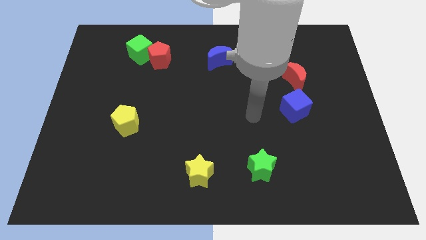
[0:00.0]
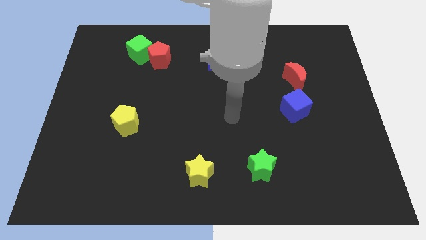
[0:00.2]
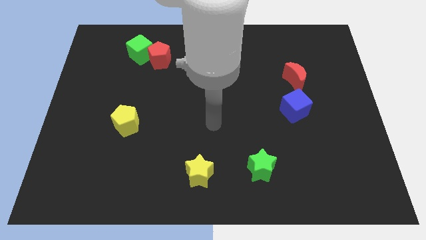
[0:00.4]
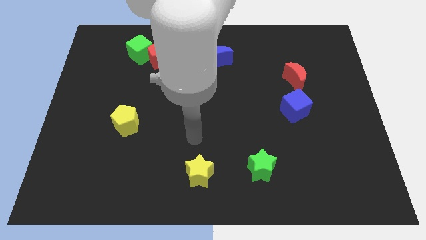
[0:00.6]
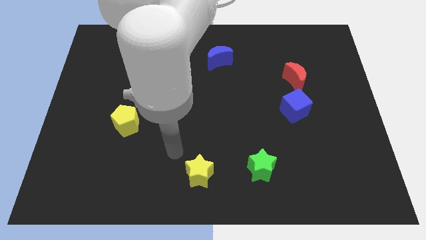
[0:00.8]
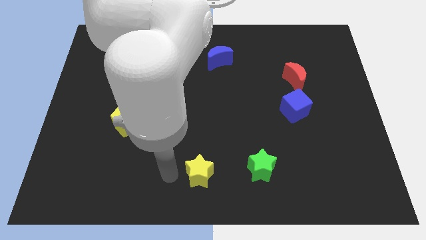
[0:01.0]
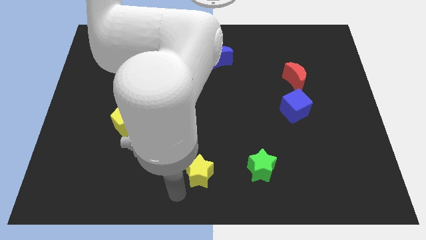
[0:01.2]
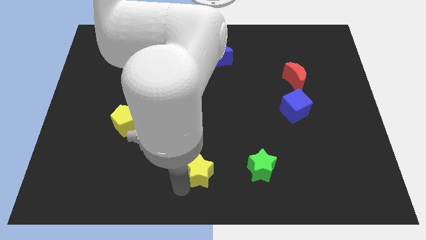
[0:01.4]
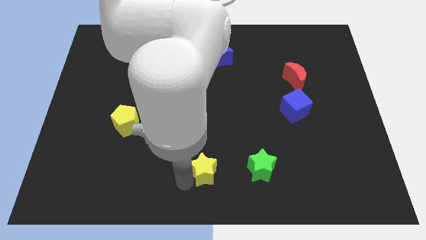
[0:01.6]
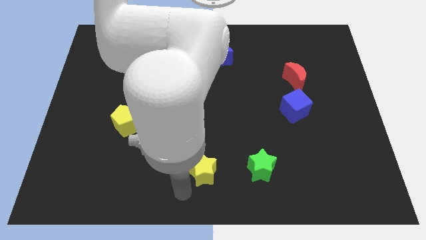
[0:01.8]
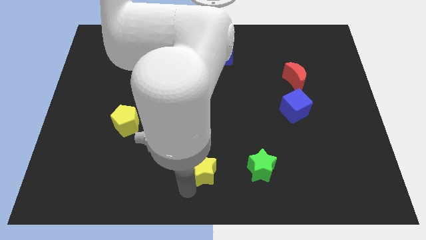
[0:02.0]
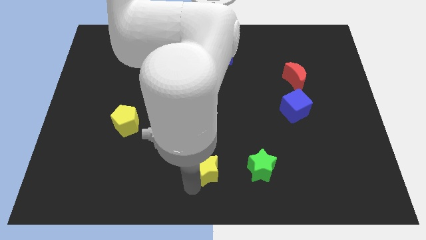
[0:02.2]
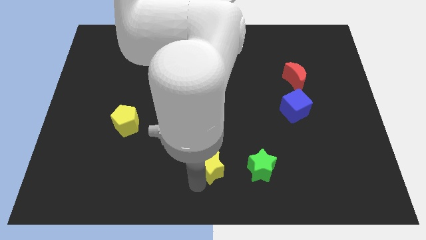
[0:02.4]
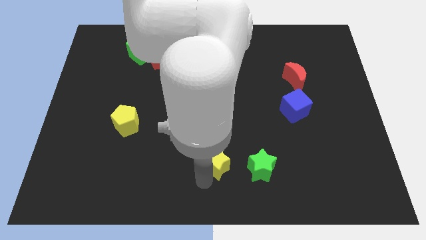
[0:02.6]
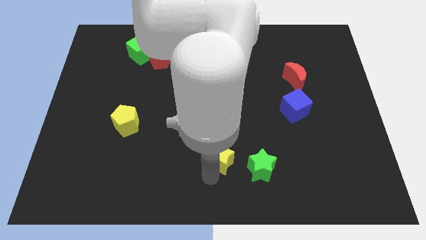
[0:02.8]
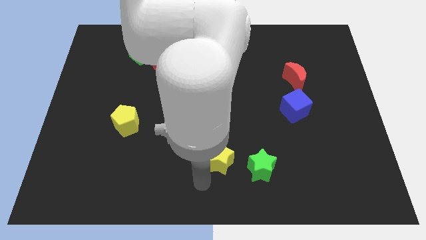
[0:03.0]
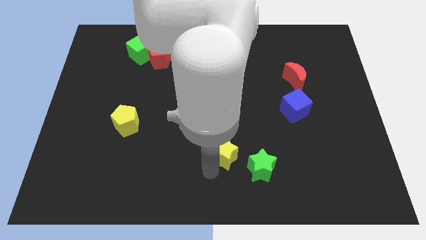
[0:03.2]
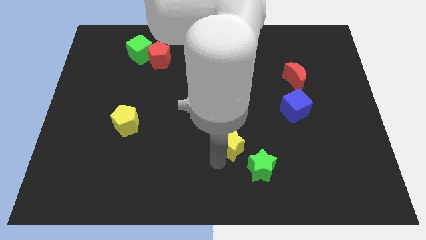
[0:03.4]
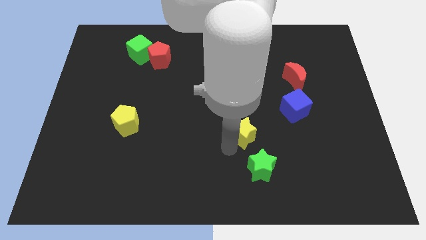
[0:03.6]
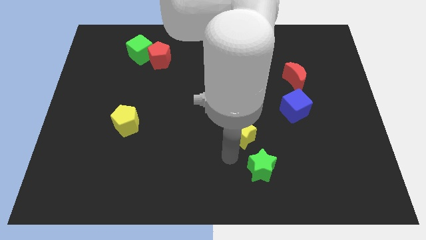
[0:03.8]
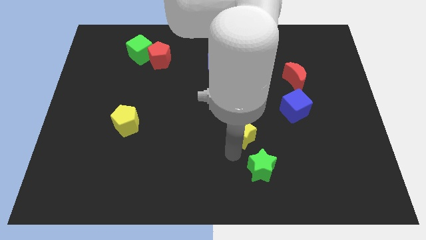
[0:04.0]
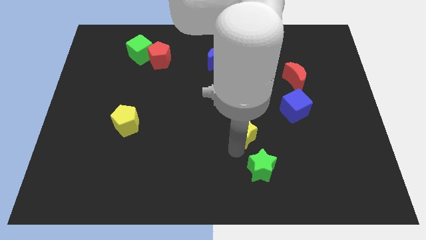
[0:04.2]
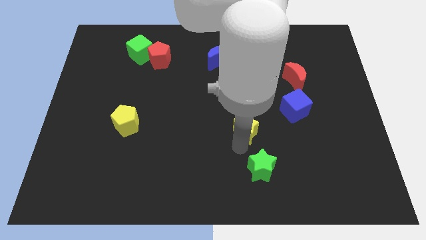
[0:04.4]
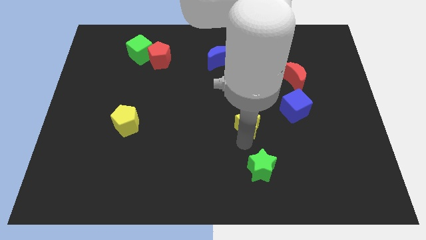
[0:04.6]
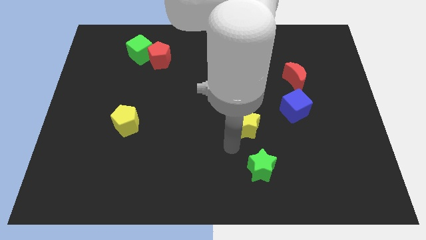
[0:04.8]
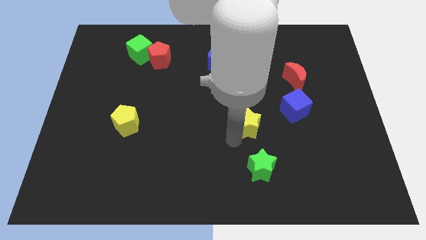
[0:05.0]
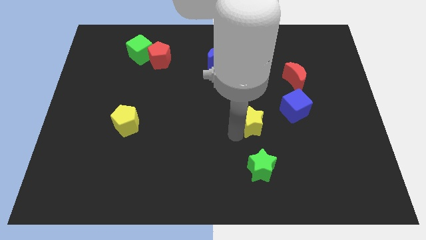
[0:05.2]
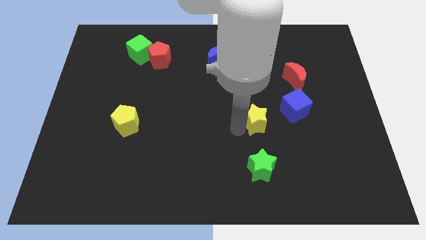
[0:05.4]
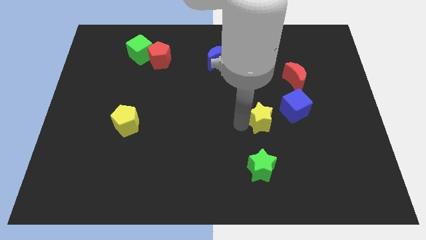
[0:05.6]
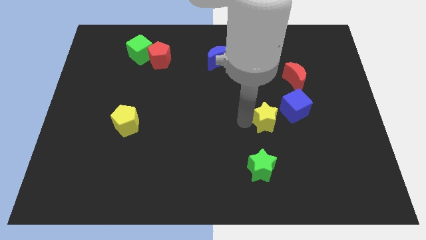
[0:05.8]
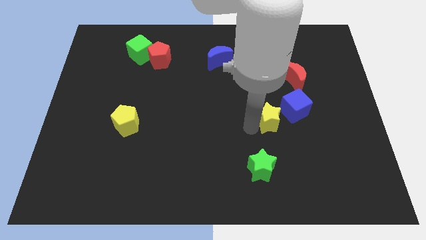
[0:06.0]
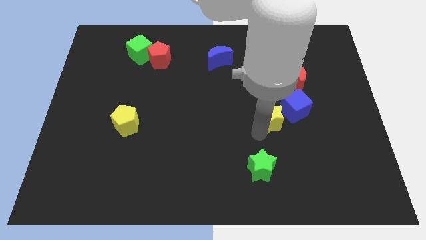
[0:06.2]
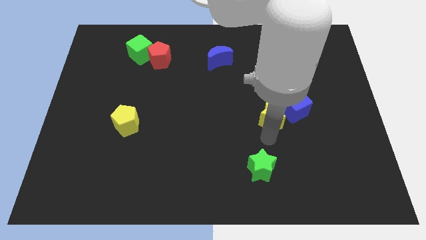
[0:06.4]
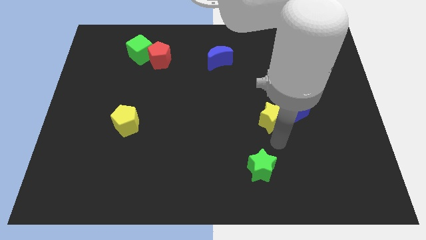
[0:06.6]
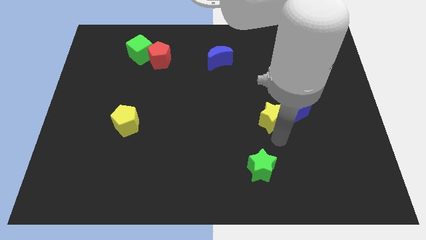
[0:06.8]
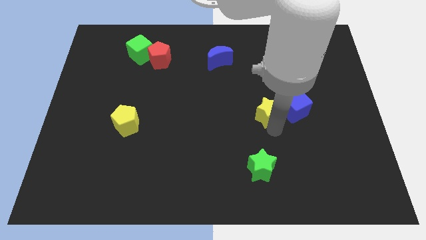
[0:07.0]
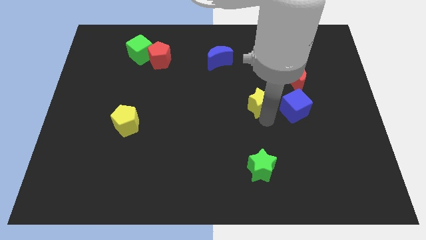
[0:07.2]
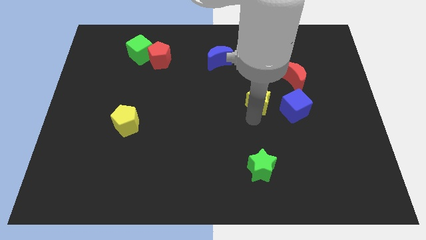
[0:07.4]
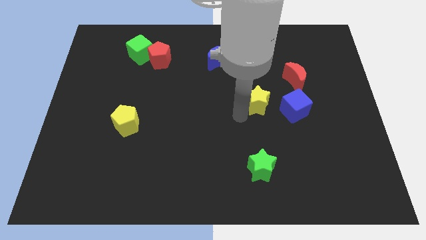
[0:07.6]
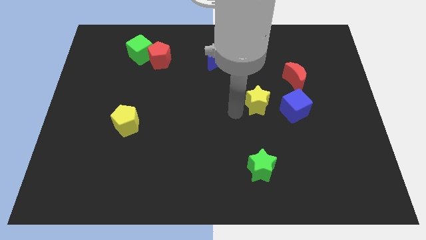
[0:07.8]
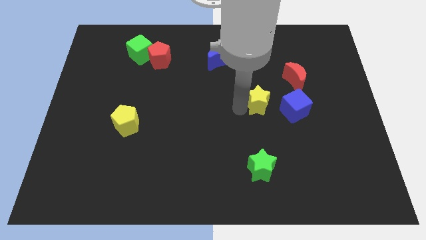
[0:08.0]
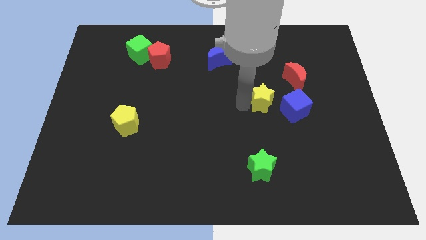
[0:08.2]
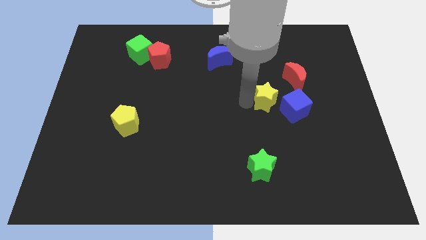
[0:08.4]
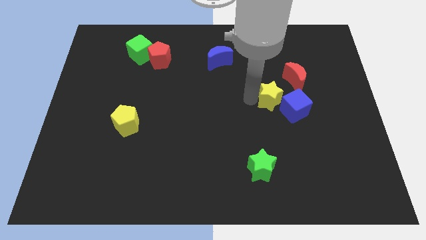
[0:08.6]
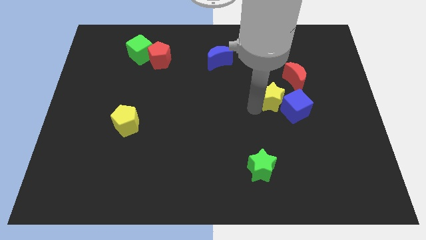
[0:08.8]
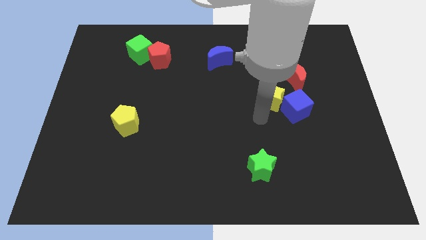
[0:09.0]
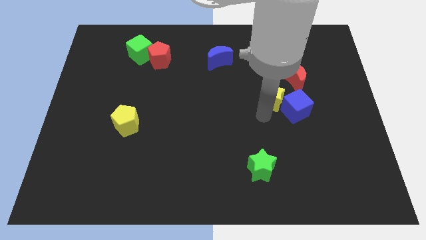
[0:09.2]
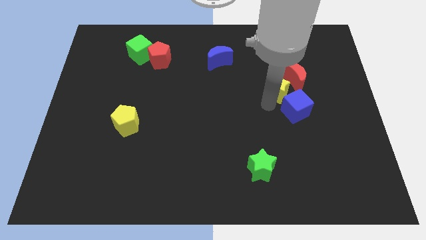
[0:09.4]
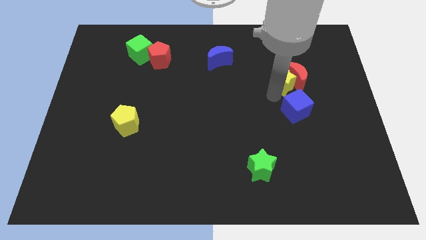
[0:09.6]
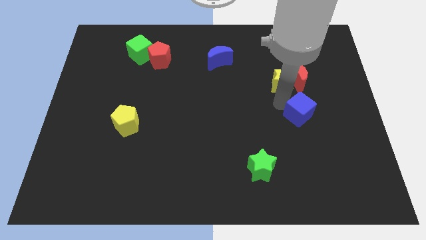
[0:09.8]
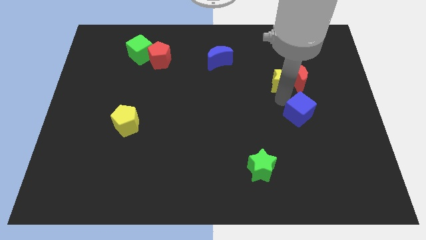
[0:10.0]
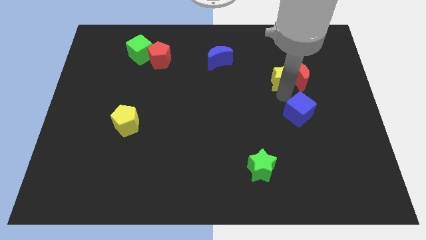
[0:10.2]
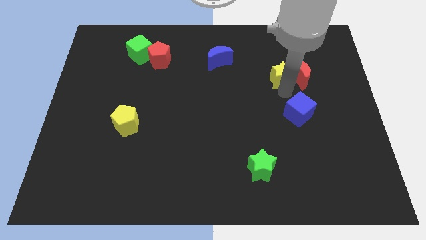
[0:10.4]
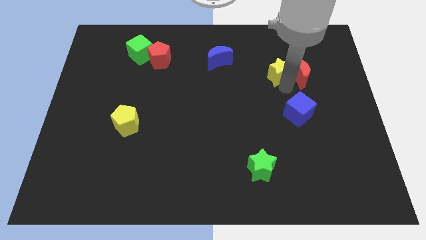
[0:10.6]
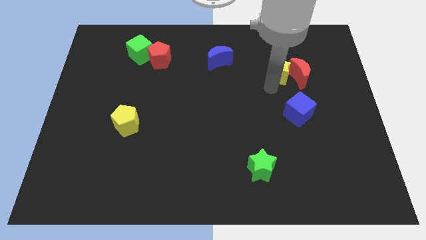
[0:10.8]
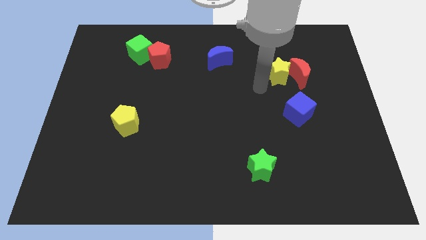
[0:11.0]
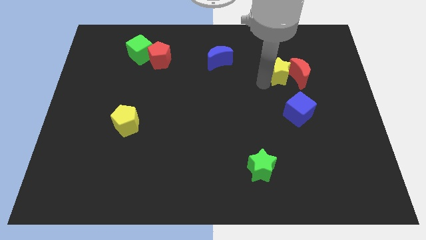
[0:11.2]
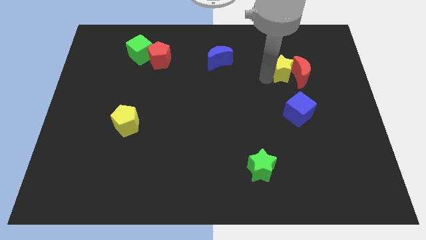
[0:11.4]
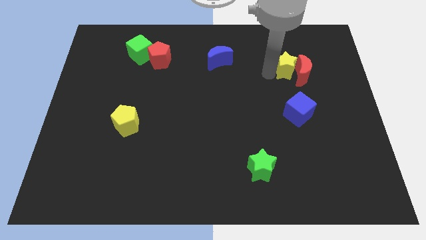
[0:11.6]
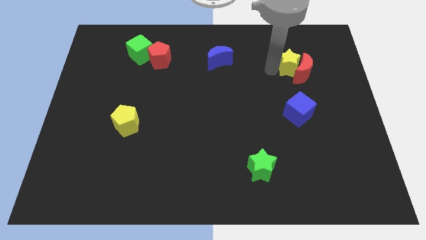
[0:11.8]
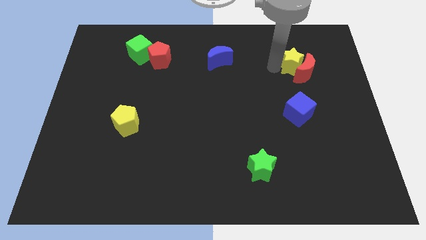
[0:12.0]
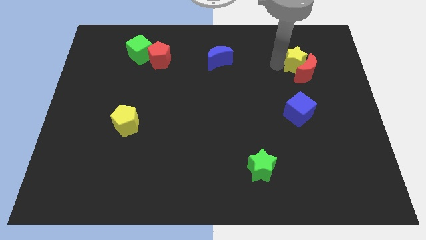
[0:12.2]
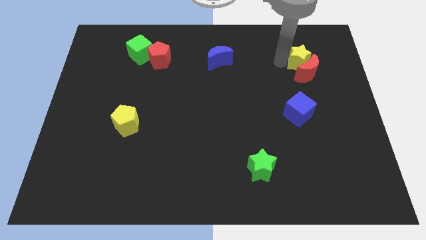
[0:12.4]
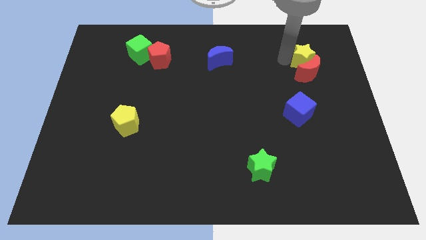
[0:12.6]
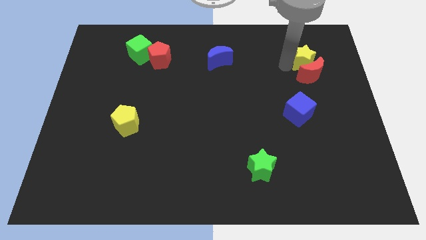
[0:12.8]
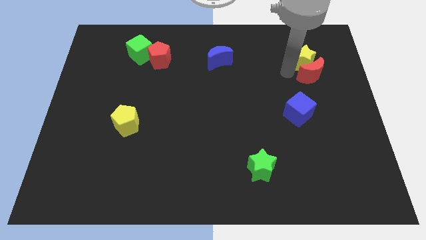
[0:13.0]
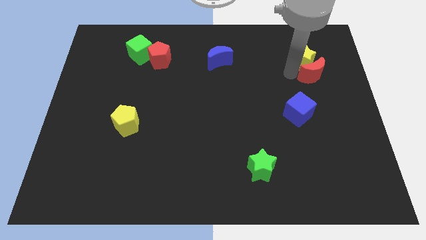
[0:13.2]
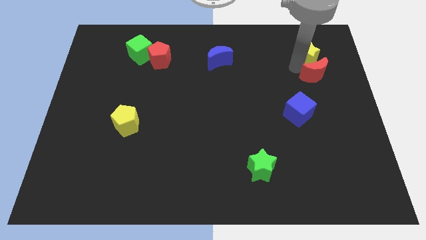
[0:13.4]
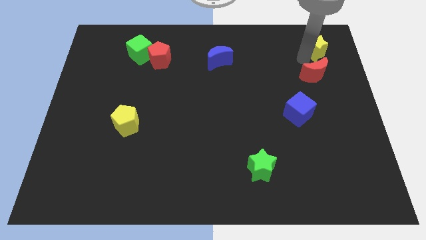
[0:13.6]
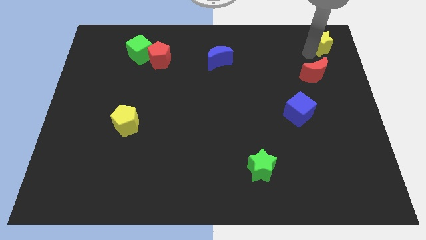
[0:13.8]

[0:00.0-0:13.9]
put the yellow star to the top right

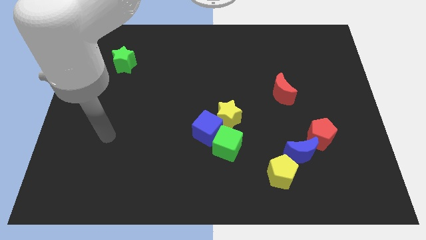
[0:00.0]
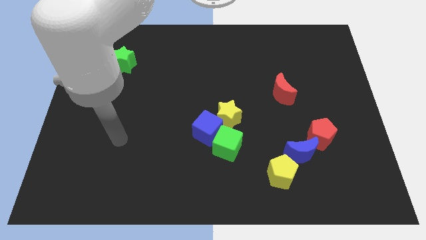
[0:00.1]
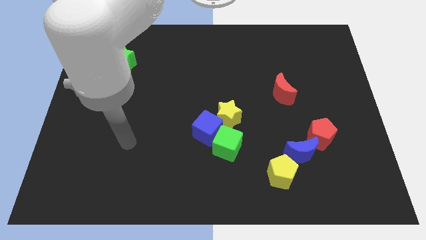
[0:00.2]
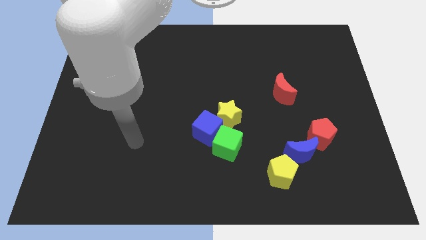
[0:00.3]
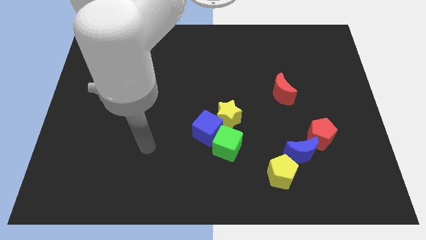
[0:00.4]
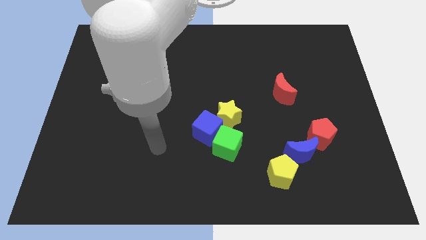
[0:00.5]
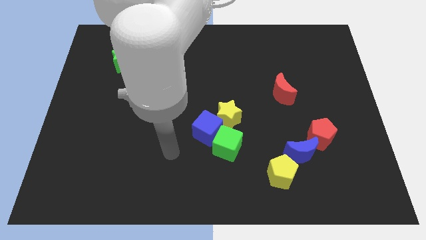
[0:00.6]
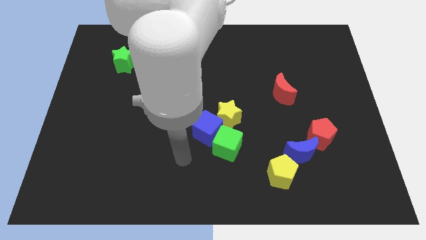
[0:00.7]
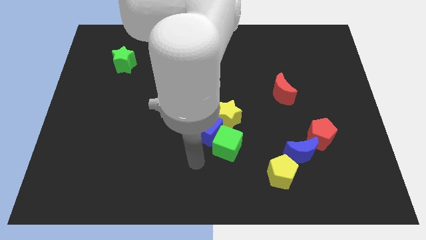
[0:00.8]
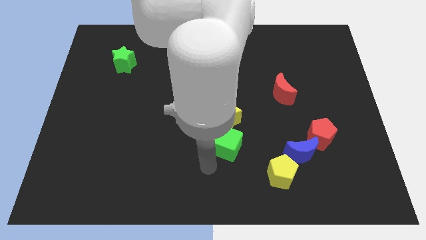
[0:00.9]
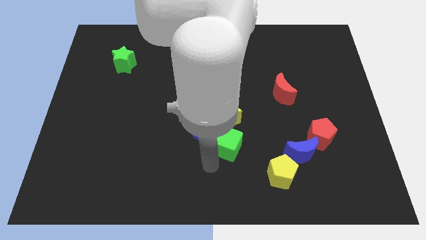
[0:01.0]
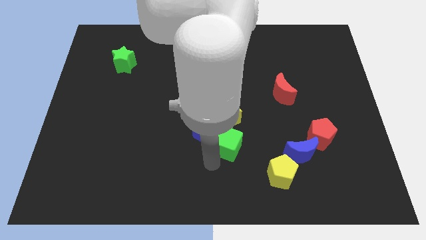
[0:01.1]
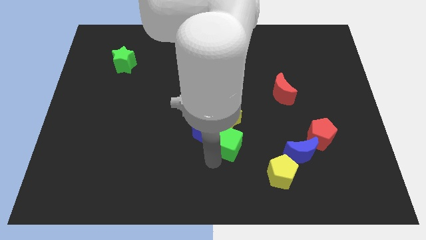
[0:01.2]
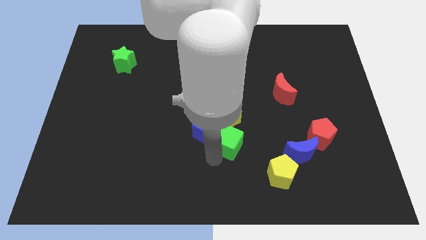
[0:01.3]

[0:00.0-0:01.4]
put the green cube to the middle of the board
